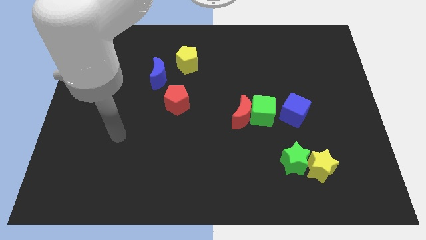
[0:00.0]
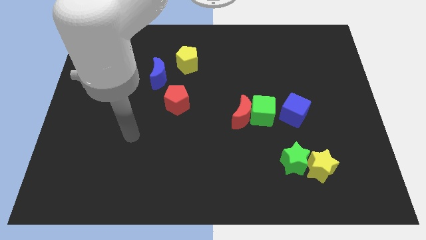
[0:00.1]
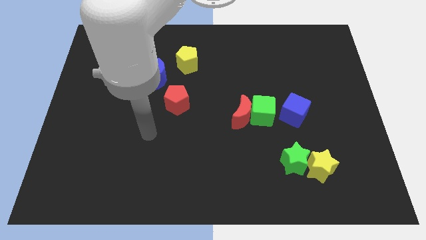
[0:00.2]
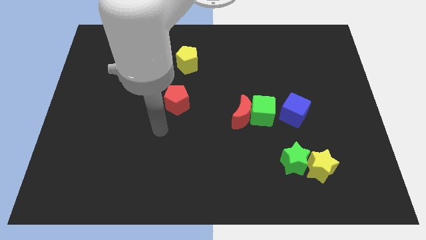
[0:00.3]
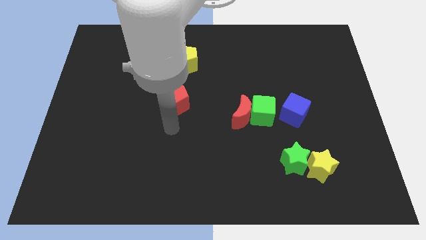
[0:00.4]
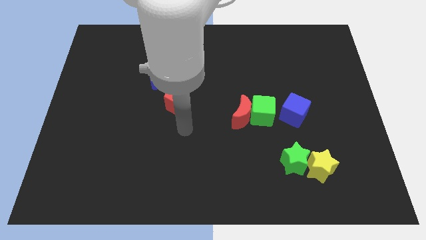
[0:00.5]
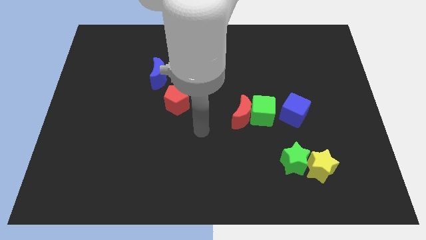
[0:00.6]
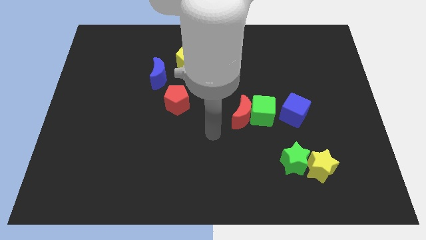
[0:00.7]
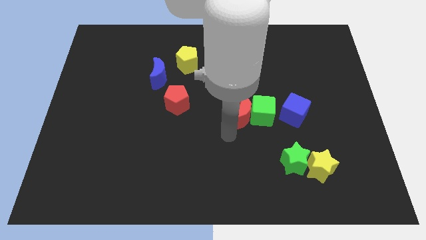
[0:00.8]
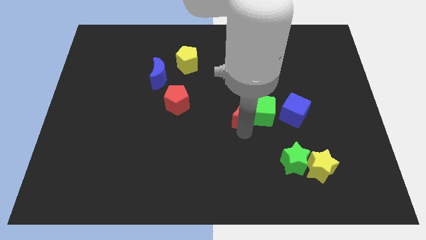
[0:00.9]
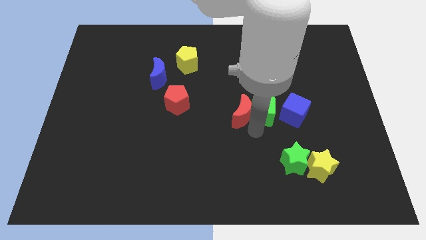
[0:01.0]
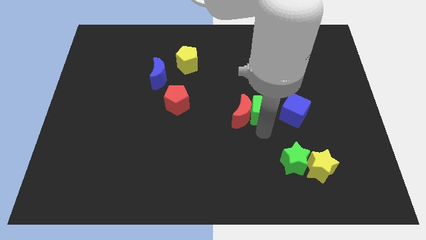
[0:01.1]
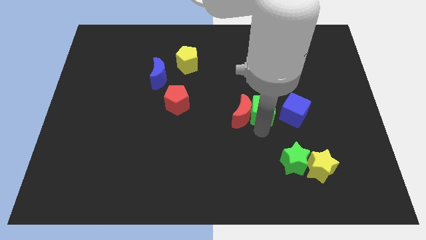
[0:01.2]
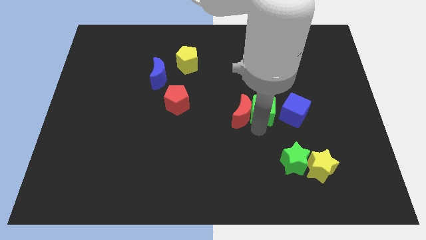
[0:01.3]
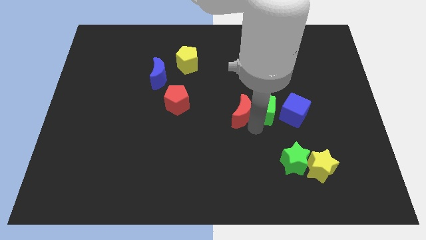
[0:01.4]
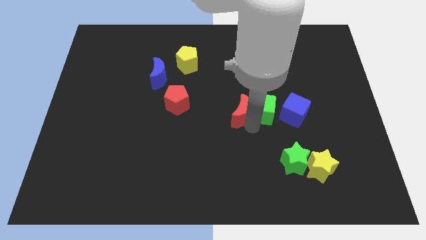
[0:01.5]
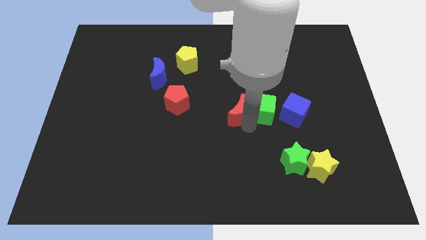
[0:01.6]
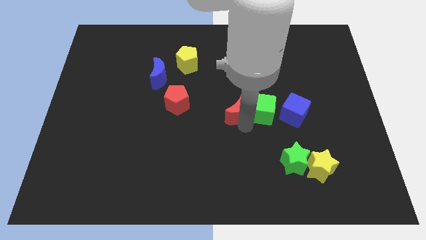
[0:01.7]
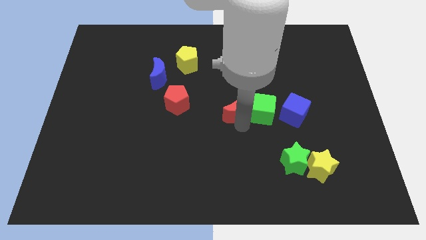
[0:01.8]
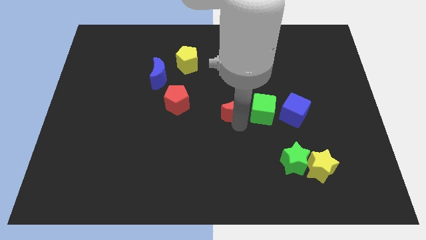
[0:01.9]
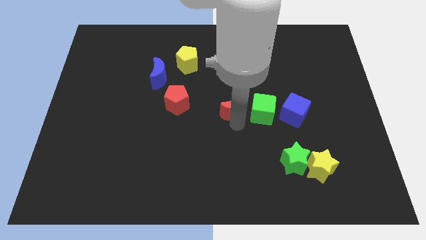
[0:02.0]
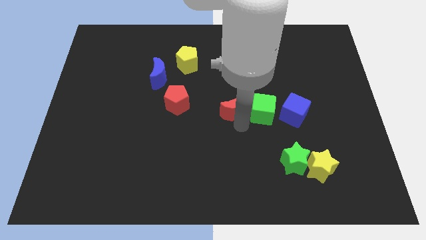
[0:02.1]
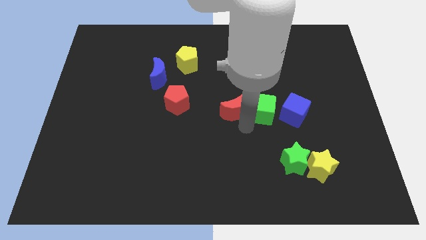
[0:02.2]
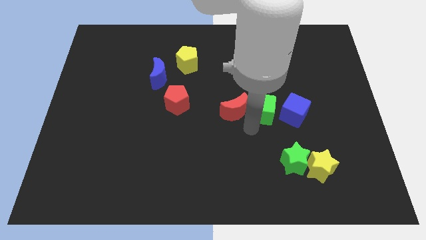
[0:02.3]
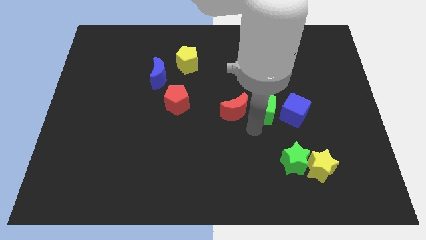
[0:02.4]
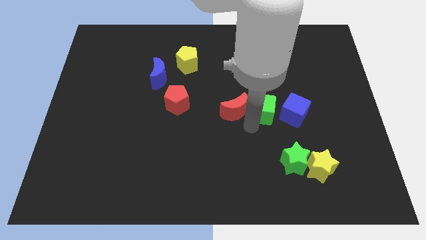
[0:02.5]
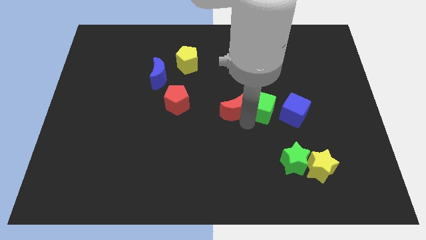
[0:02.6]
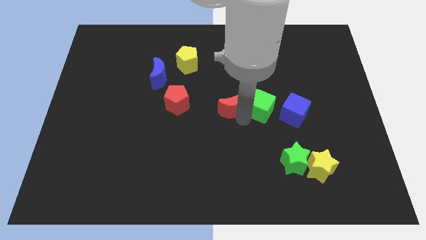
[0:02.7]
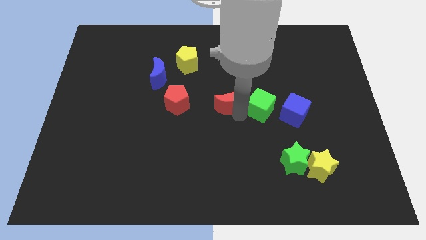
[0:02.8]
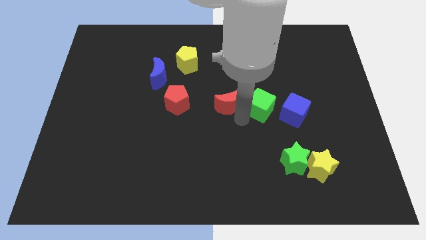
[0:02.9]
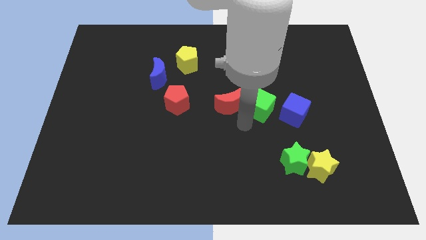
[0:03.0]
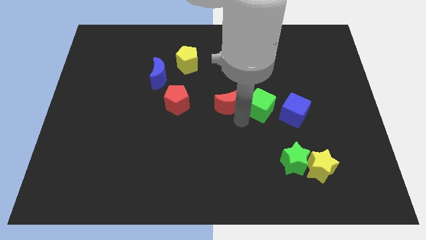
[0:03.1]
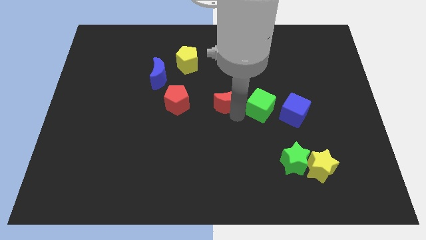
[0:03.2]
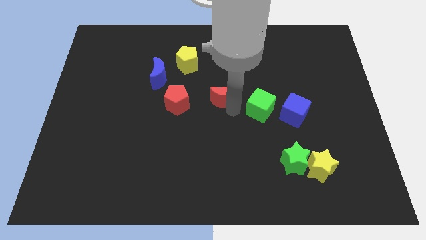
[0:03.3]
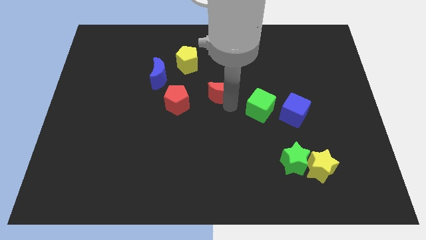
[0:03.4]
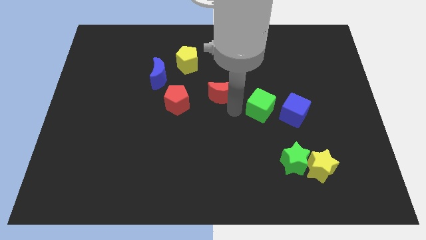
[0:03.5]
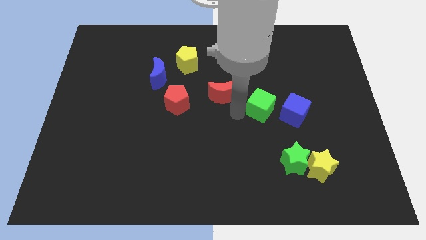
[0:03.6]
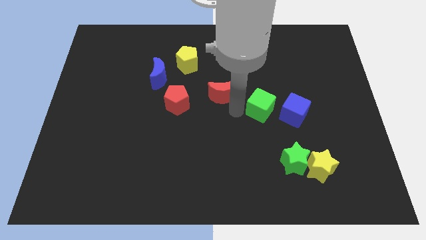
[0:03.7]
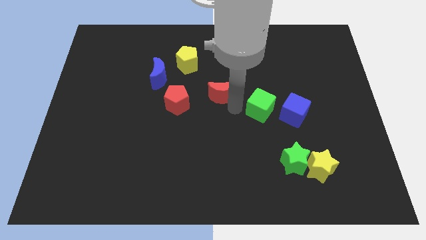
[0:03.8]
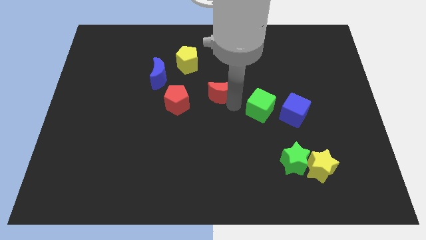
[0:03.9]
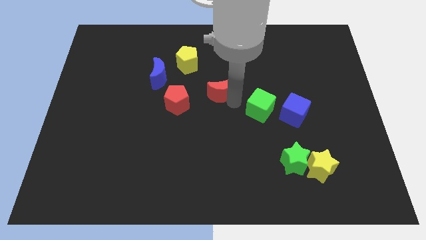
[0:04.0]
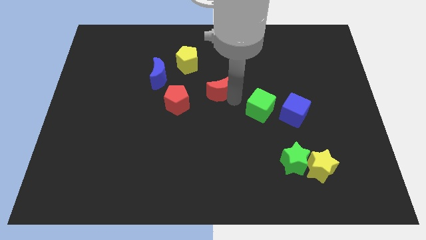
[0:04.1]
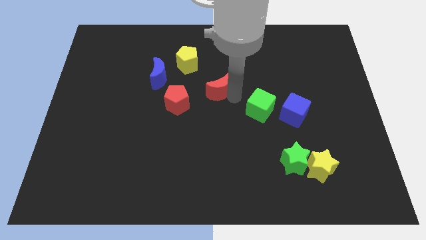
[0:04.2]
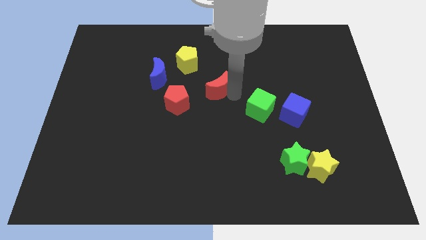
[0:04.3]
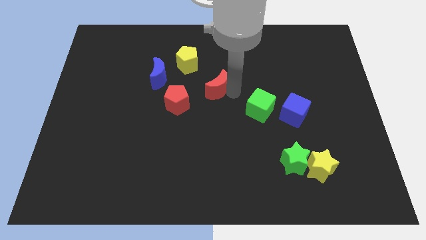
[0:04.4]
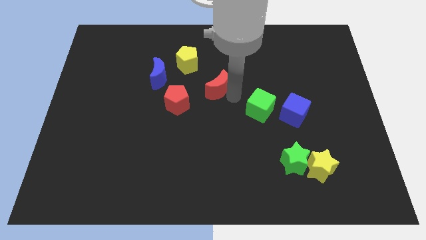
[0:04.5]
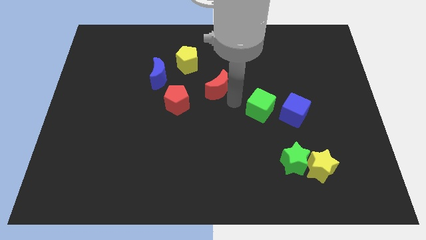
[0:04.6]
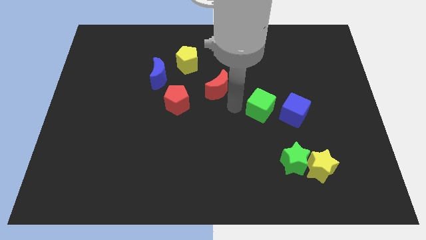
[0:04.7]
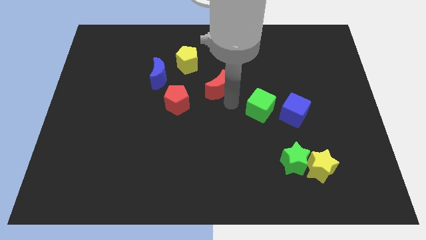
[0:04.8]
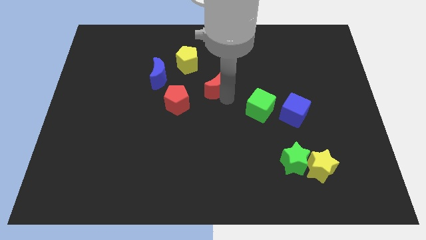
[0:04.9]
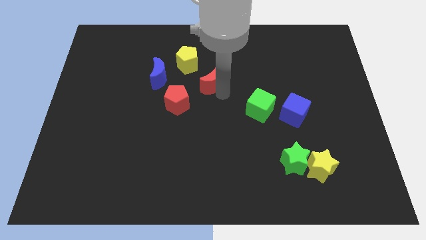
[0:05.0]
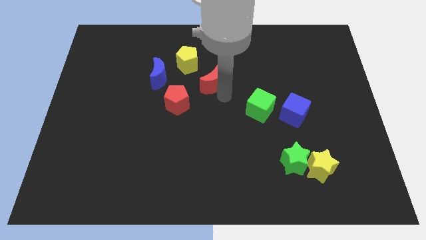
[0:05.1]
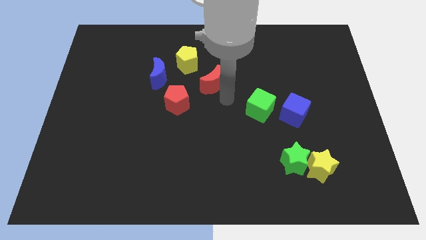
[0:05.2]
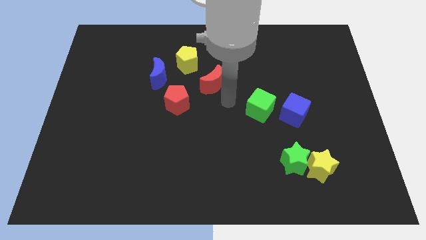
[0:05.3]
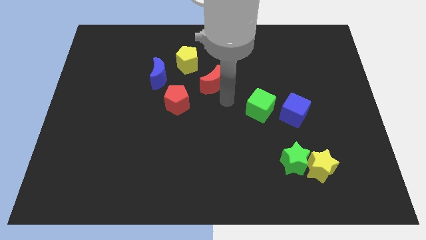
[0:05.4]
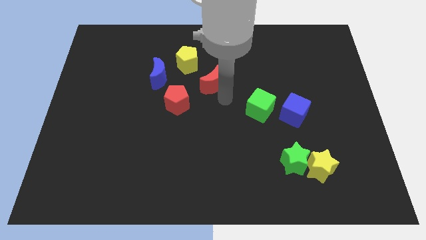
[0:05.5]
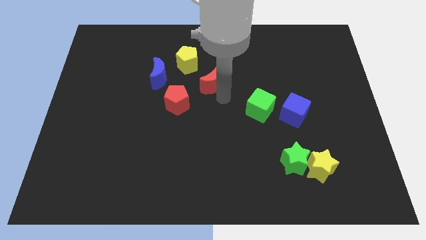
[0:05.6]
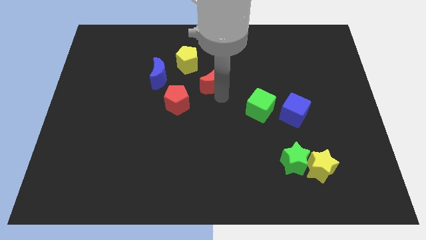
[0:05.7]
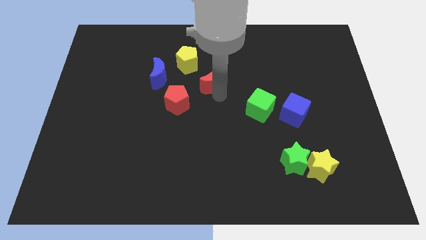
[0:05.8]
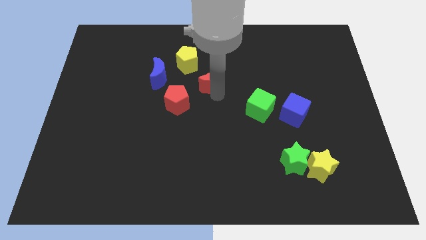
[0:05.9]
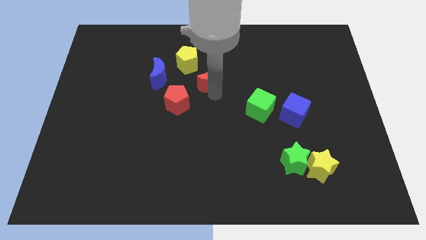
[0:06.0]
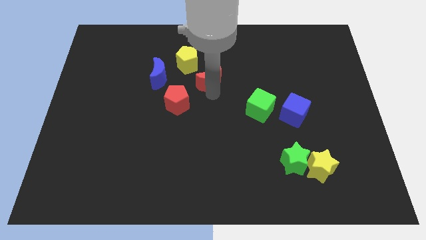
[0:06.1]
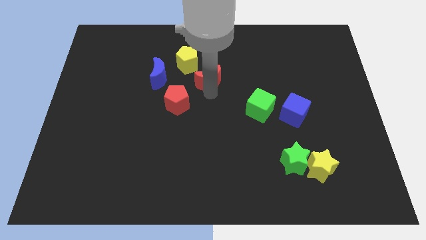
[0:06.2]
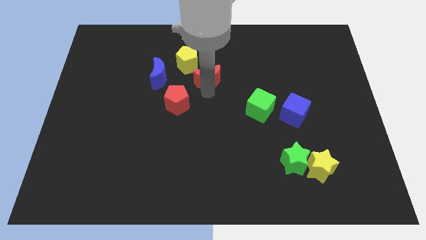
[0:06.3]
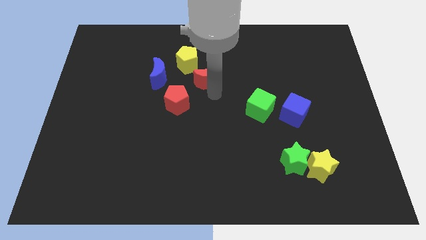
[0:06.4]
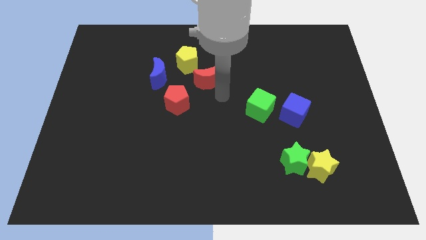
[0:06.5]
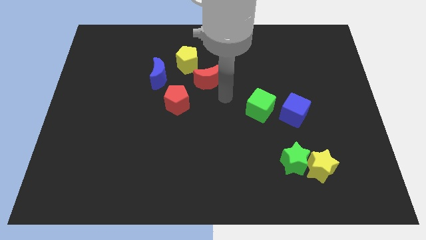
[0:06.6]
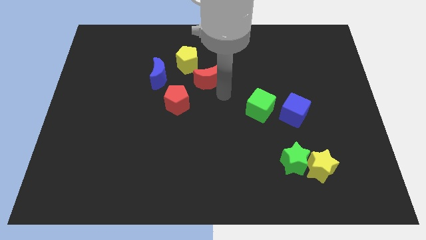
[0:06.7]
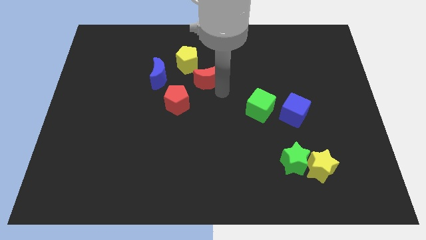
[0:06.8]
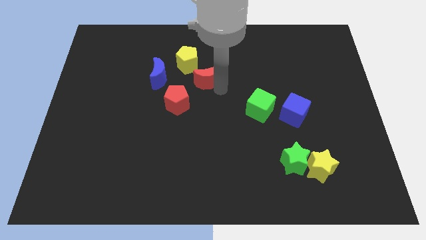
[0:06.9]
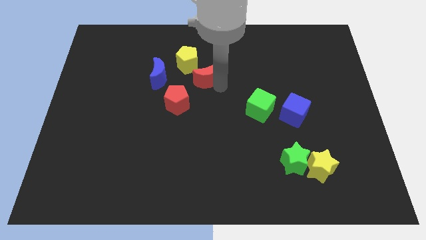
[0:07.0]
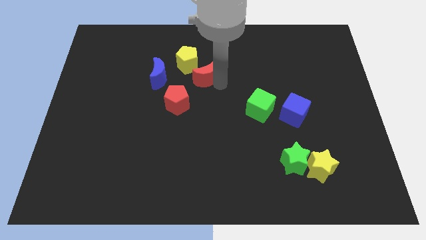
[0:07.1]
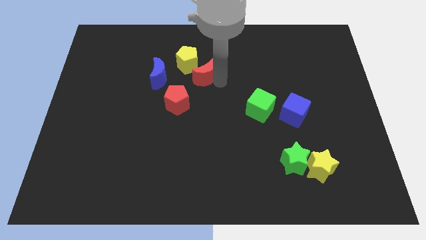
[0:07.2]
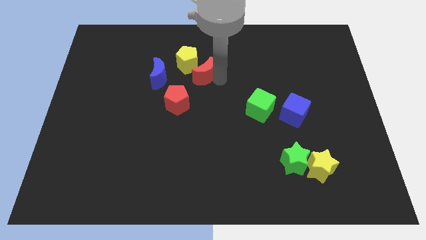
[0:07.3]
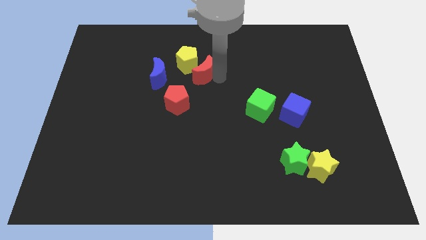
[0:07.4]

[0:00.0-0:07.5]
move the red moon towards the yellow pentagon
